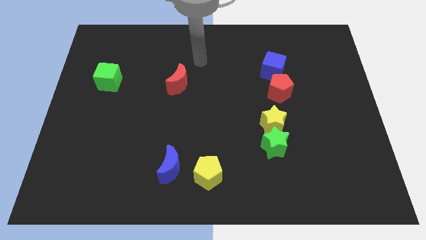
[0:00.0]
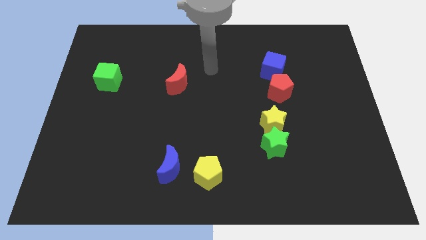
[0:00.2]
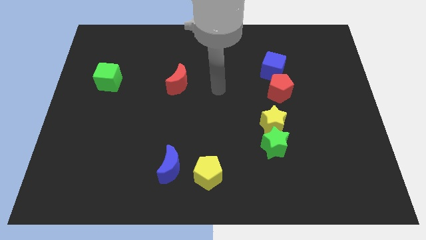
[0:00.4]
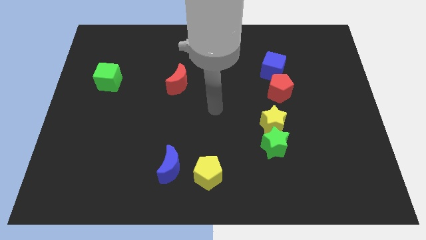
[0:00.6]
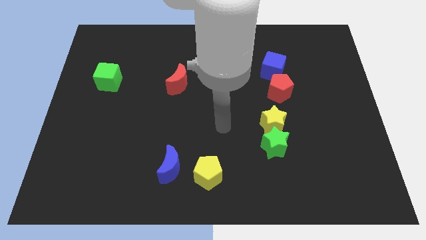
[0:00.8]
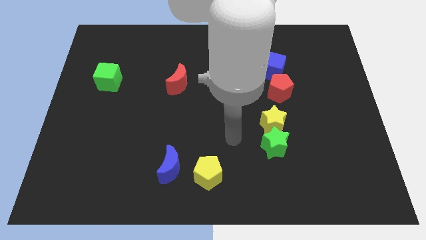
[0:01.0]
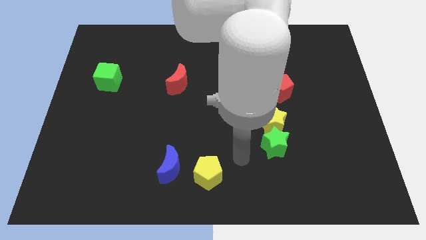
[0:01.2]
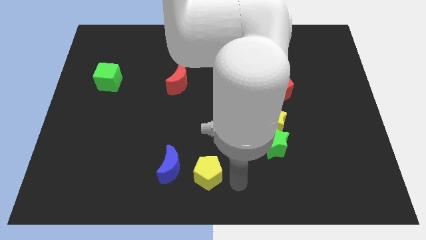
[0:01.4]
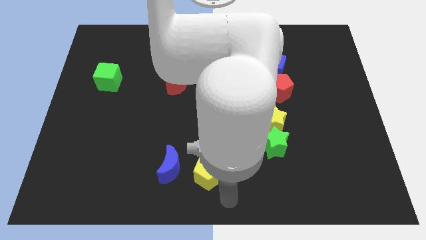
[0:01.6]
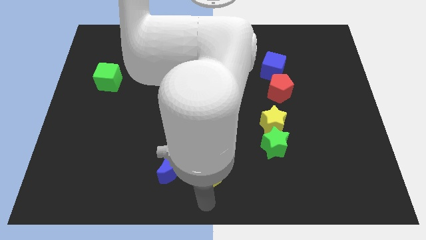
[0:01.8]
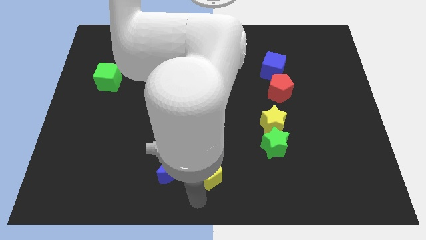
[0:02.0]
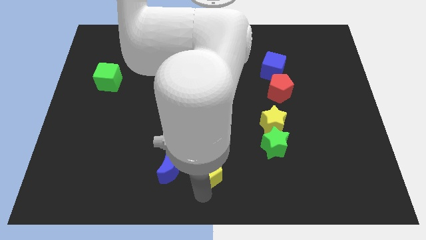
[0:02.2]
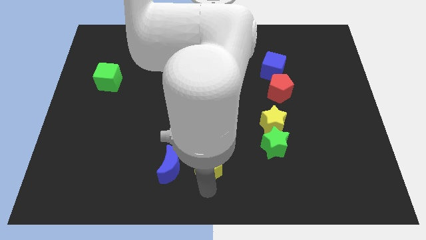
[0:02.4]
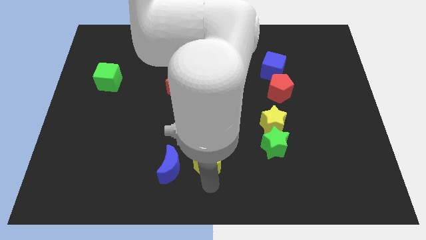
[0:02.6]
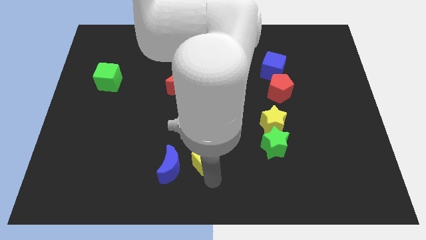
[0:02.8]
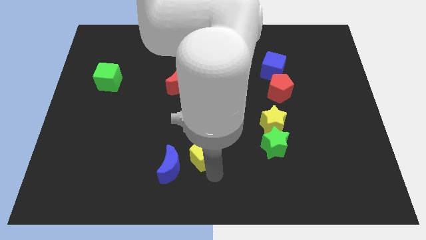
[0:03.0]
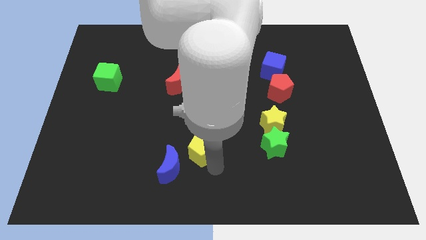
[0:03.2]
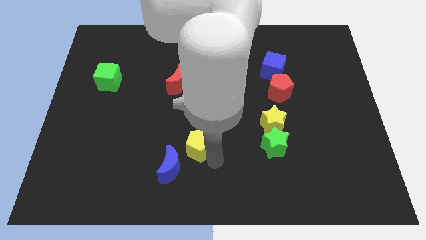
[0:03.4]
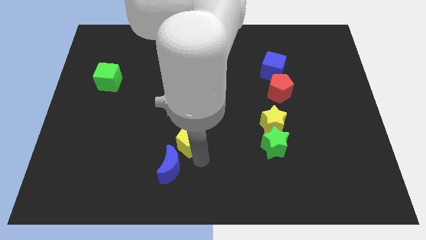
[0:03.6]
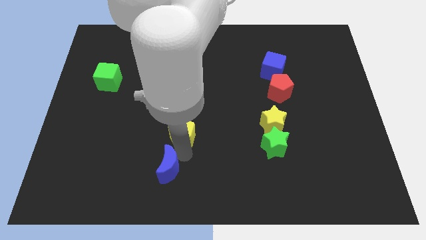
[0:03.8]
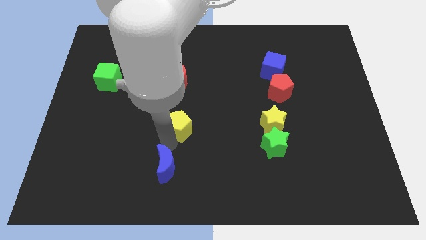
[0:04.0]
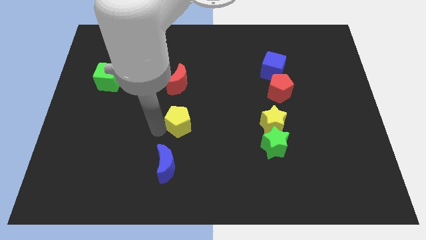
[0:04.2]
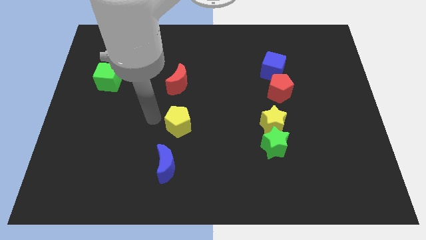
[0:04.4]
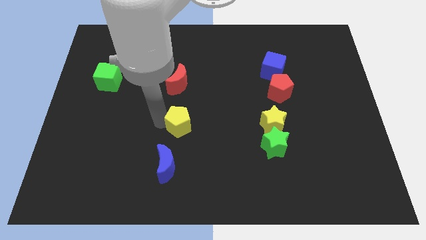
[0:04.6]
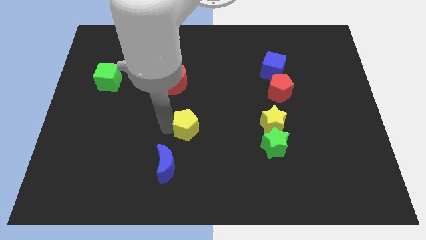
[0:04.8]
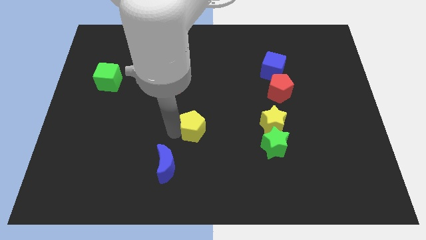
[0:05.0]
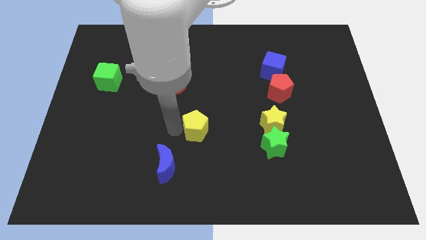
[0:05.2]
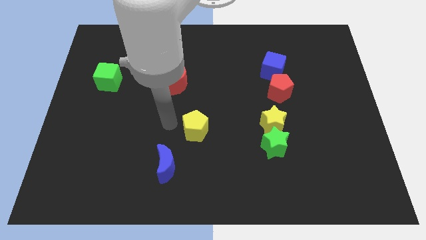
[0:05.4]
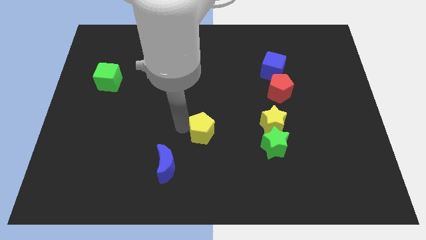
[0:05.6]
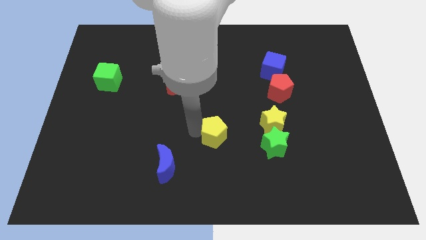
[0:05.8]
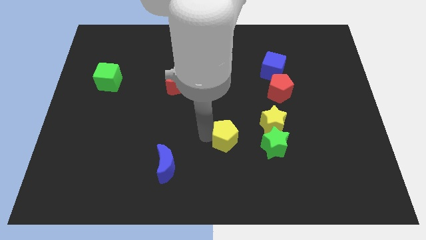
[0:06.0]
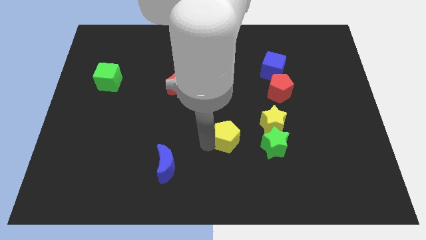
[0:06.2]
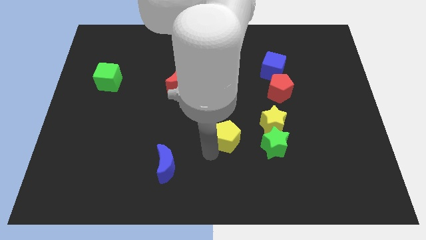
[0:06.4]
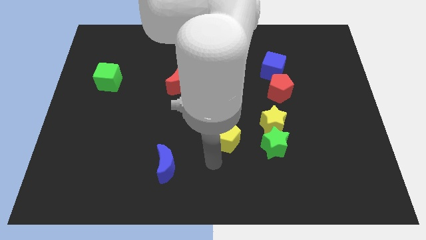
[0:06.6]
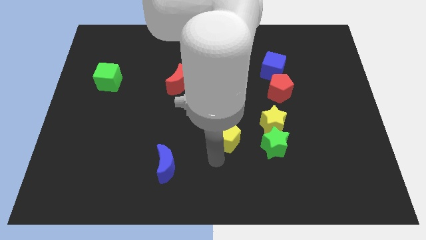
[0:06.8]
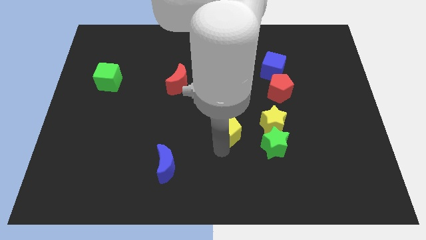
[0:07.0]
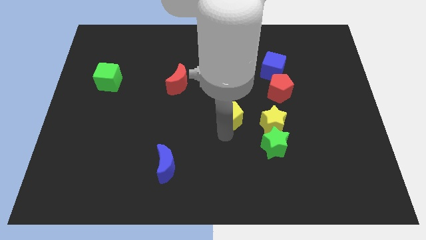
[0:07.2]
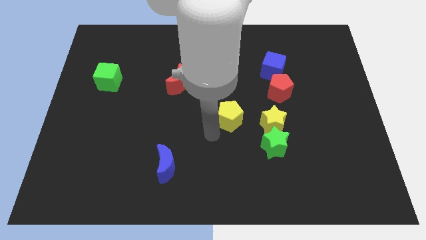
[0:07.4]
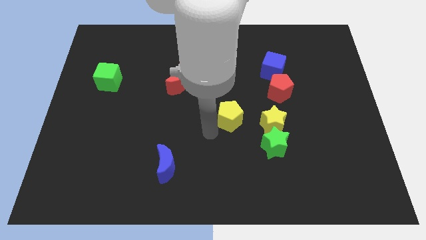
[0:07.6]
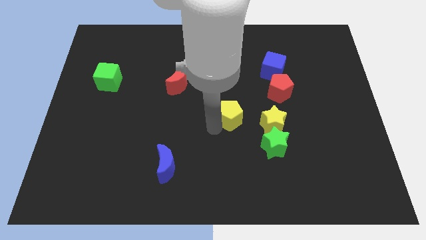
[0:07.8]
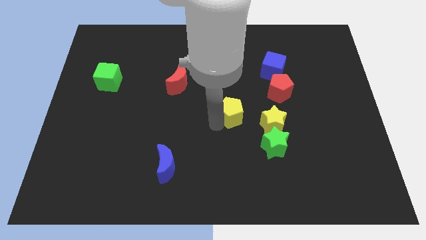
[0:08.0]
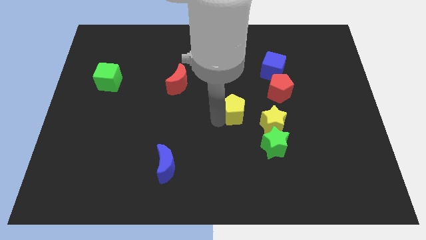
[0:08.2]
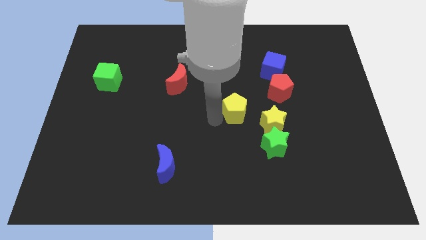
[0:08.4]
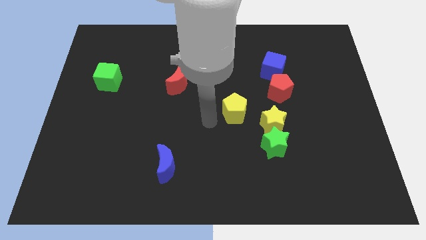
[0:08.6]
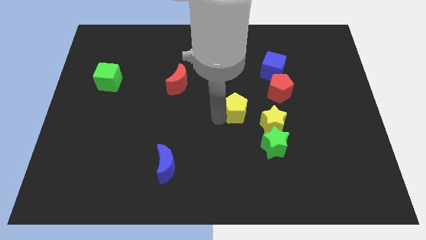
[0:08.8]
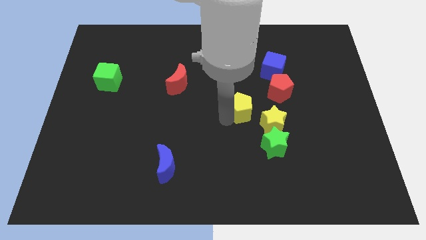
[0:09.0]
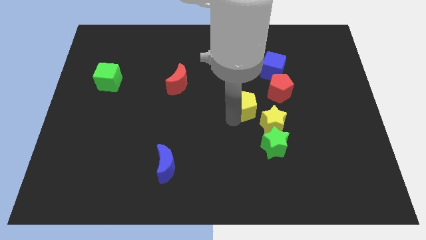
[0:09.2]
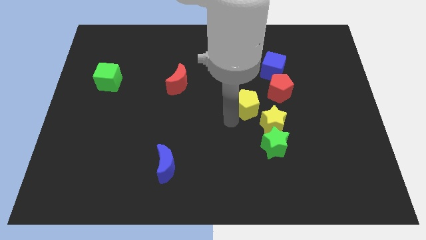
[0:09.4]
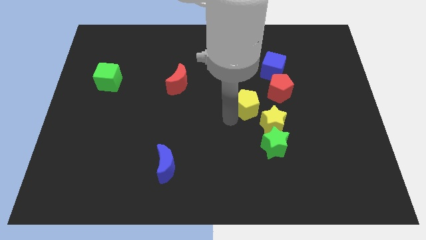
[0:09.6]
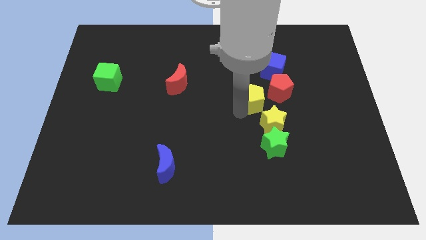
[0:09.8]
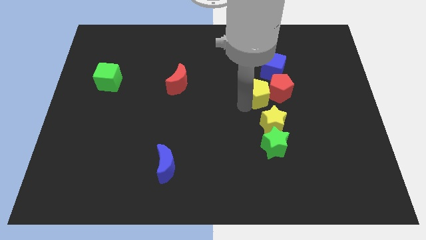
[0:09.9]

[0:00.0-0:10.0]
move the yellow pentagon up and then right

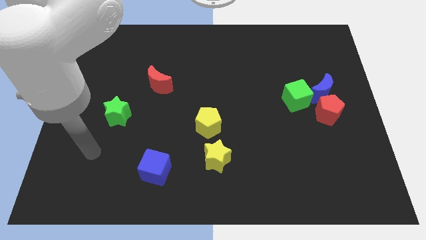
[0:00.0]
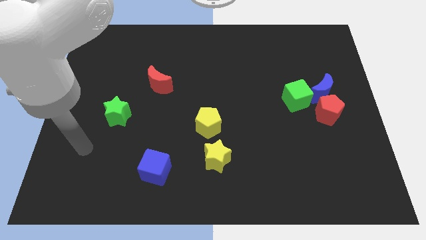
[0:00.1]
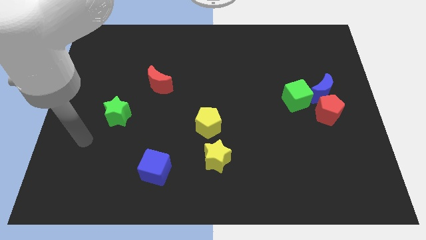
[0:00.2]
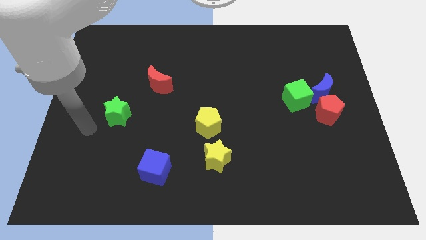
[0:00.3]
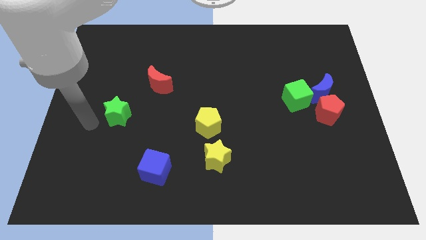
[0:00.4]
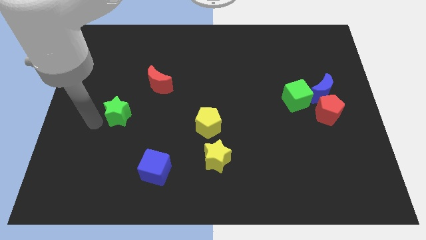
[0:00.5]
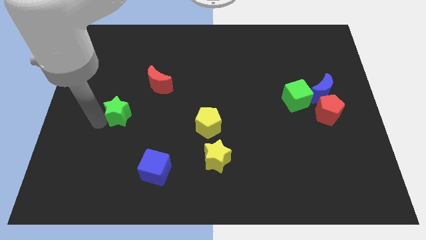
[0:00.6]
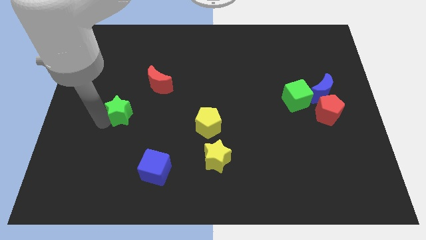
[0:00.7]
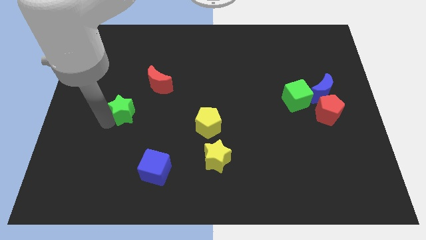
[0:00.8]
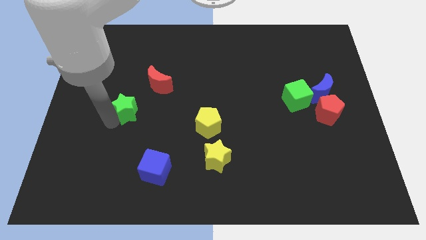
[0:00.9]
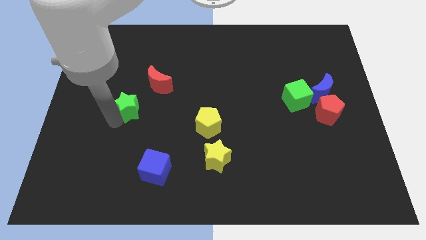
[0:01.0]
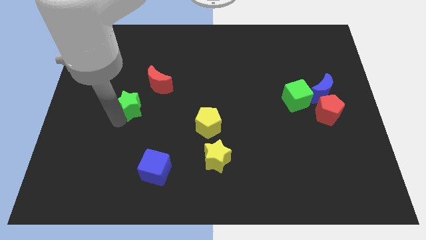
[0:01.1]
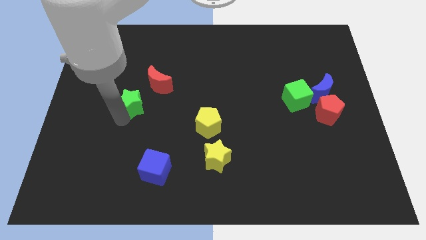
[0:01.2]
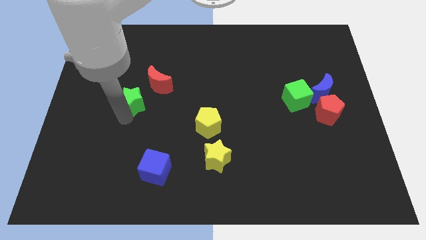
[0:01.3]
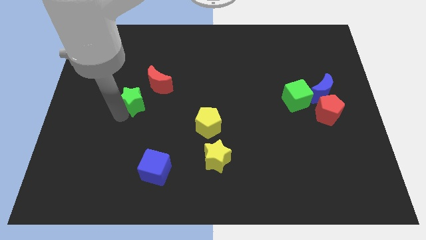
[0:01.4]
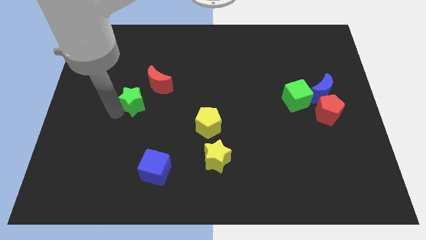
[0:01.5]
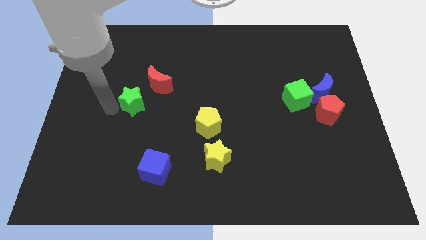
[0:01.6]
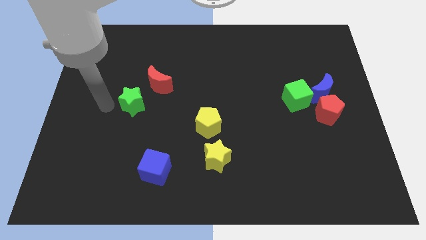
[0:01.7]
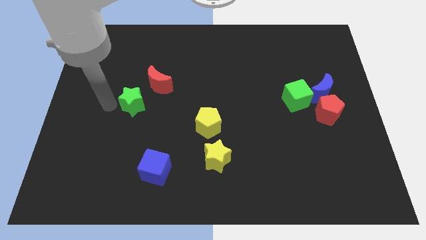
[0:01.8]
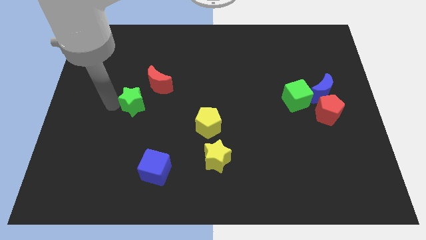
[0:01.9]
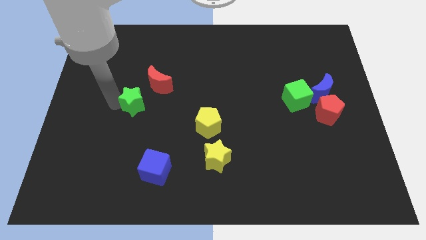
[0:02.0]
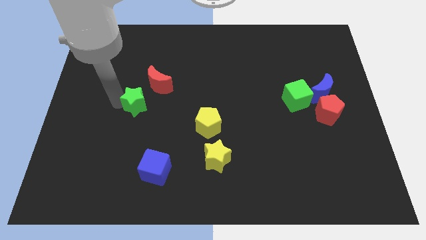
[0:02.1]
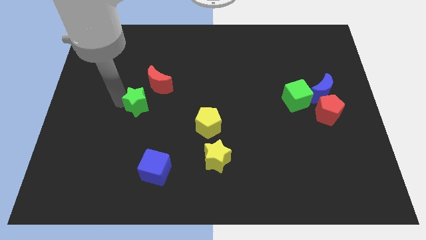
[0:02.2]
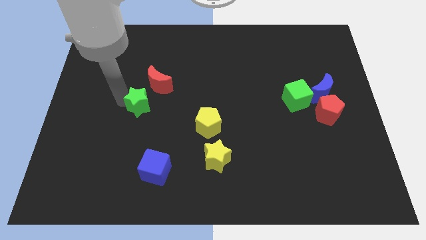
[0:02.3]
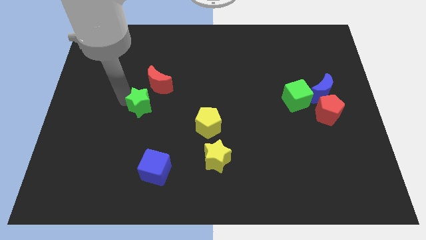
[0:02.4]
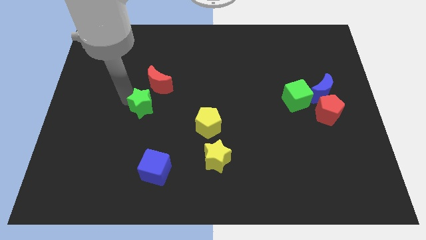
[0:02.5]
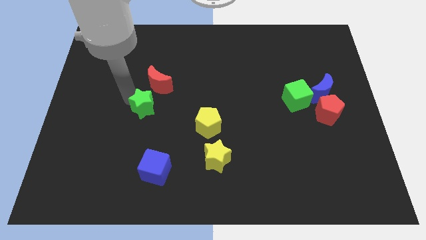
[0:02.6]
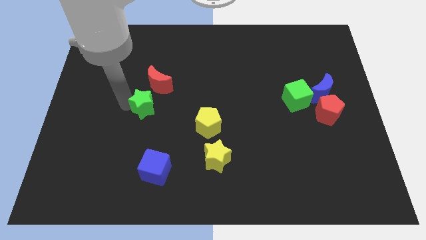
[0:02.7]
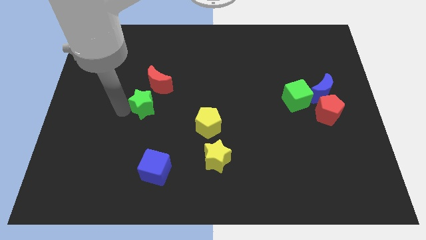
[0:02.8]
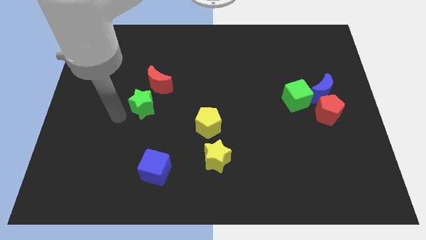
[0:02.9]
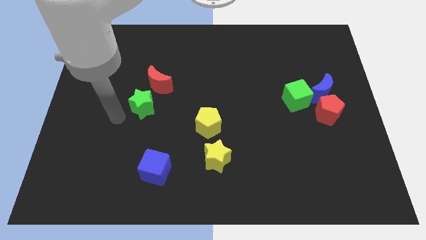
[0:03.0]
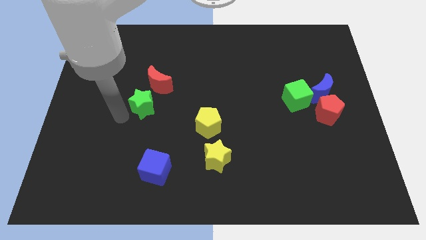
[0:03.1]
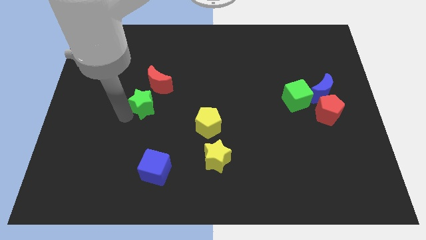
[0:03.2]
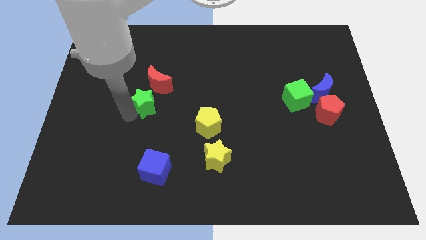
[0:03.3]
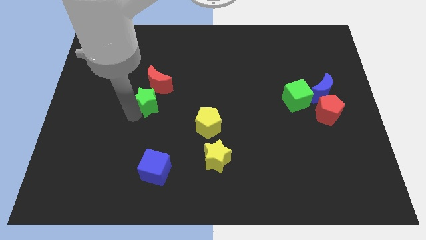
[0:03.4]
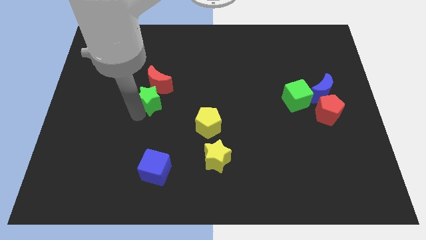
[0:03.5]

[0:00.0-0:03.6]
slightly move the green star up and right
